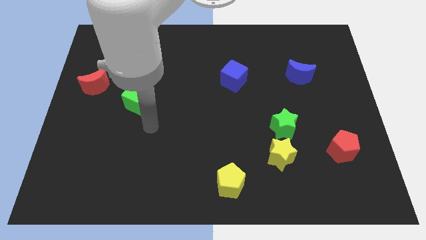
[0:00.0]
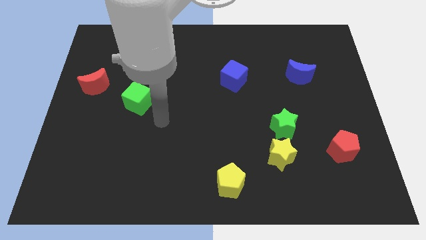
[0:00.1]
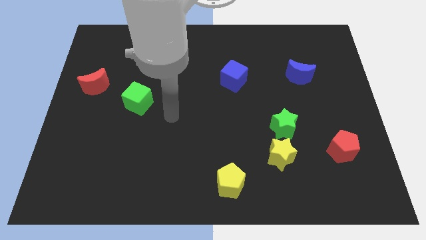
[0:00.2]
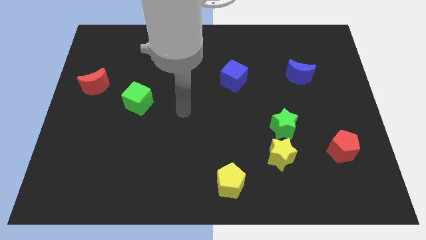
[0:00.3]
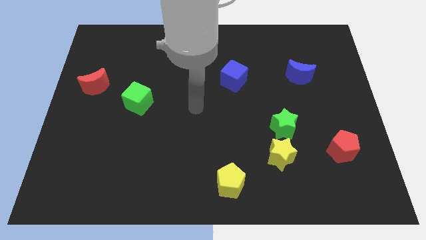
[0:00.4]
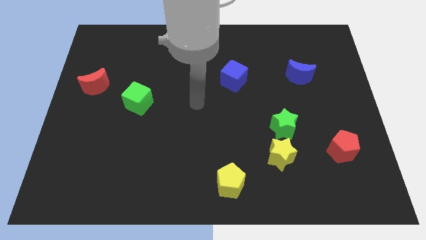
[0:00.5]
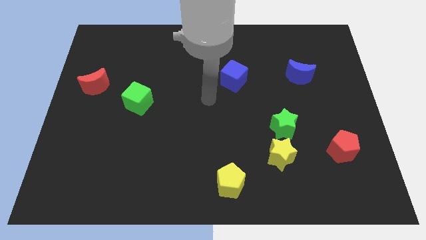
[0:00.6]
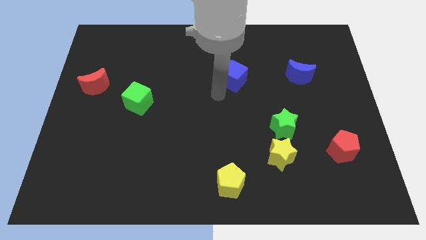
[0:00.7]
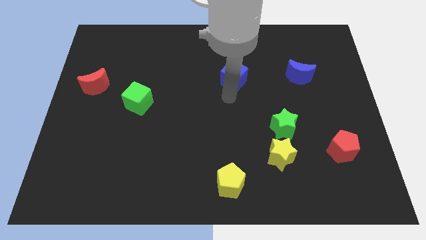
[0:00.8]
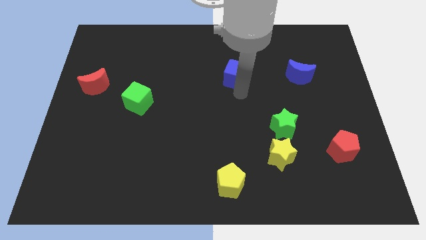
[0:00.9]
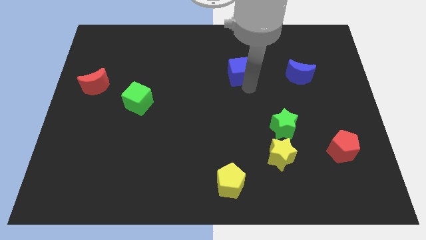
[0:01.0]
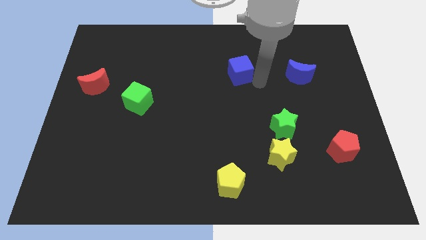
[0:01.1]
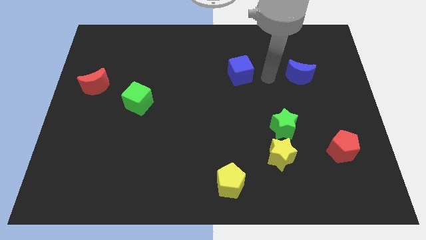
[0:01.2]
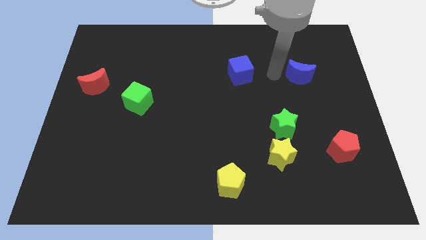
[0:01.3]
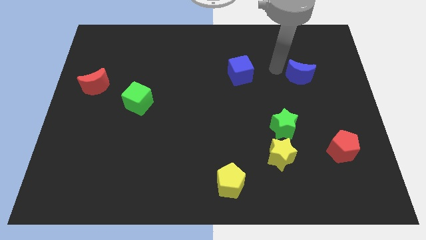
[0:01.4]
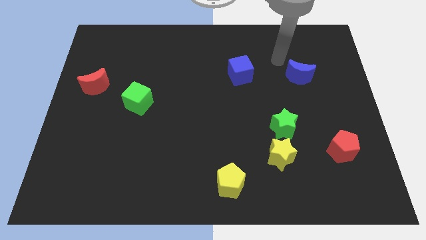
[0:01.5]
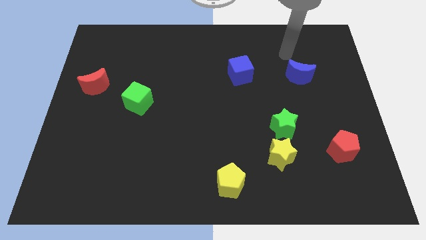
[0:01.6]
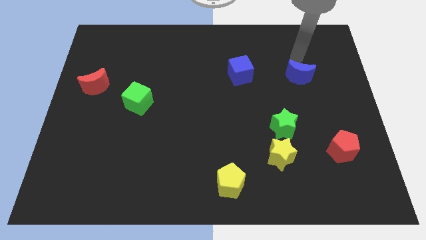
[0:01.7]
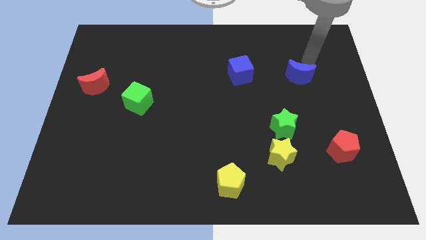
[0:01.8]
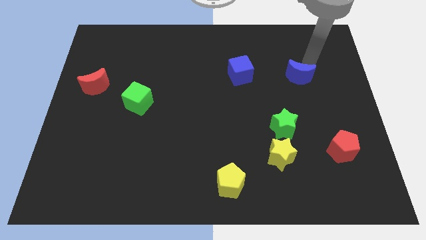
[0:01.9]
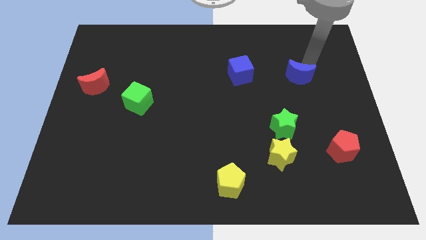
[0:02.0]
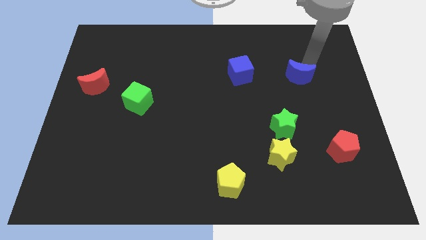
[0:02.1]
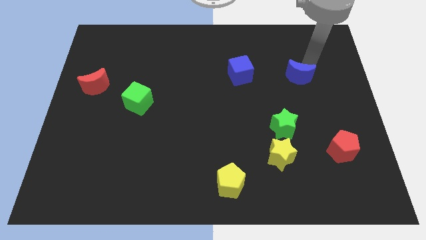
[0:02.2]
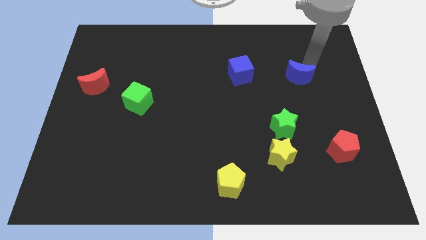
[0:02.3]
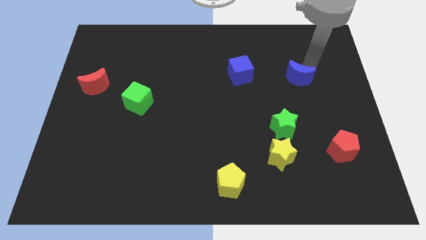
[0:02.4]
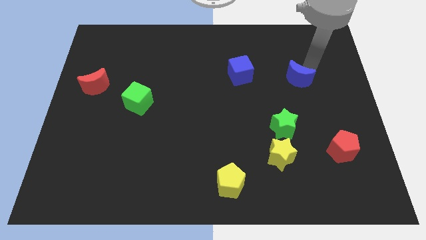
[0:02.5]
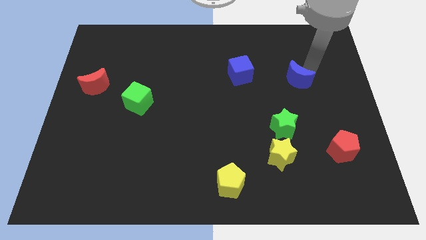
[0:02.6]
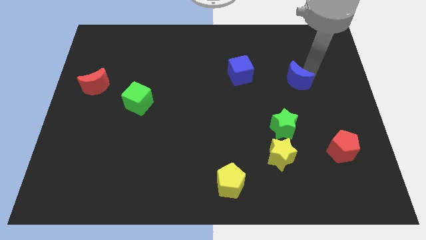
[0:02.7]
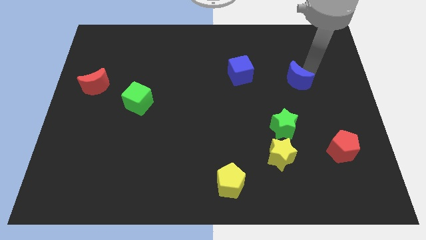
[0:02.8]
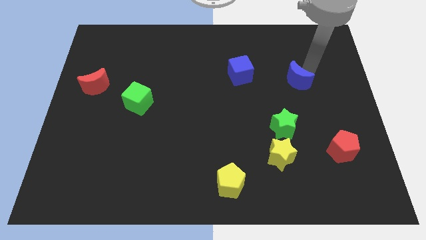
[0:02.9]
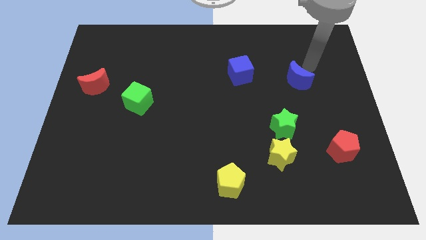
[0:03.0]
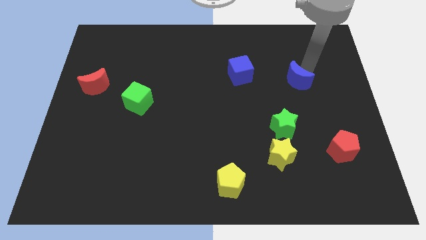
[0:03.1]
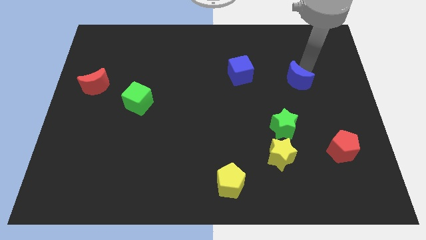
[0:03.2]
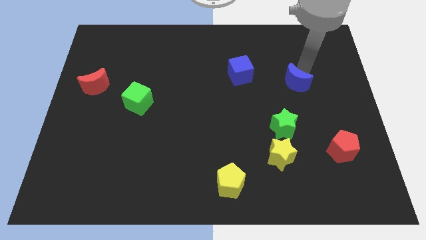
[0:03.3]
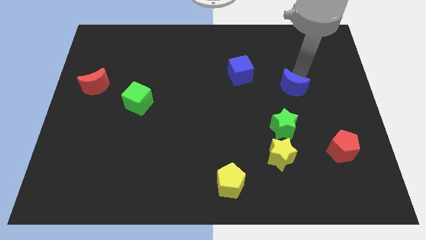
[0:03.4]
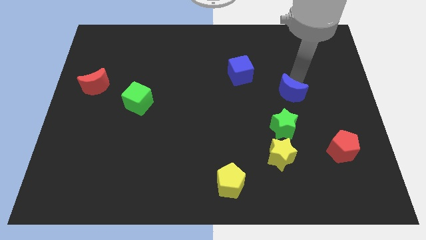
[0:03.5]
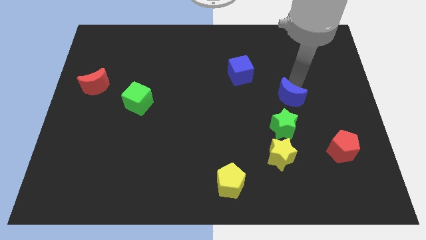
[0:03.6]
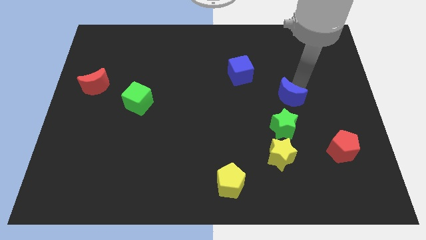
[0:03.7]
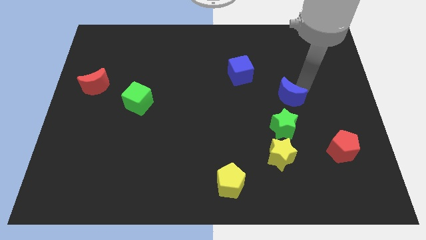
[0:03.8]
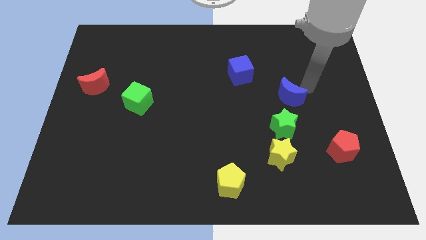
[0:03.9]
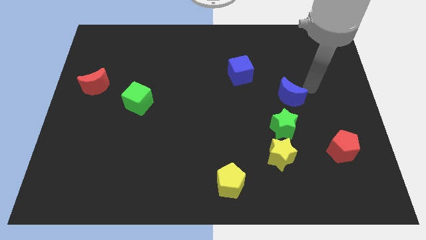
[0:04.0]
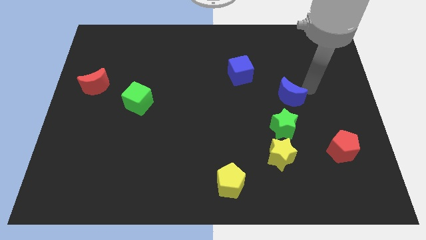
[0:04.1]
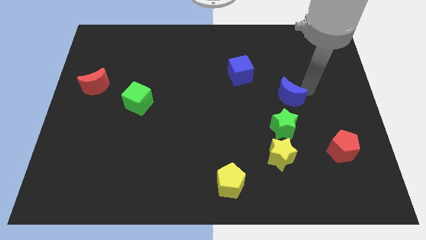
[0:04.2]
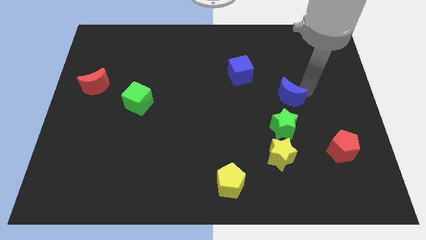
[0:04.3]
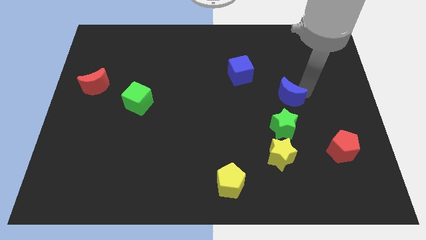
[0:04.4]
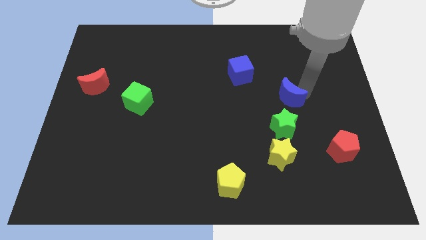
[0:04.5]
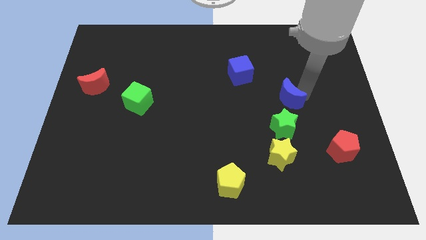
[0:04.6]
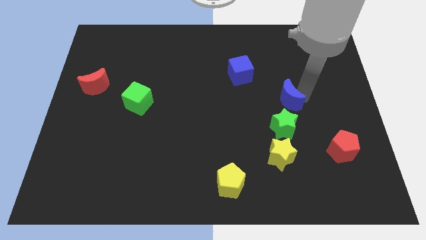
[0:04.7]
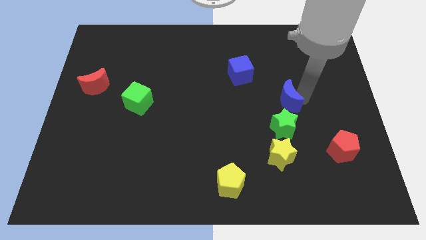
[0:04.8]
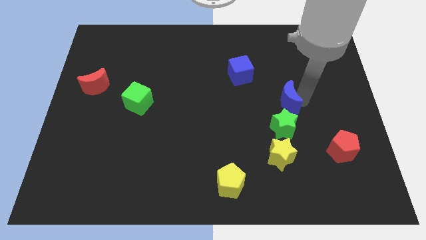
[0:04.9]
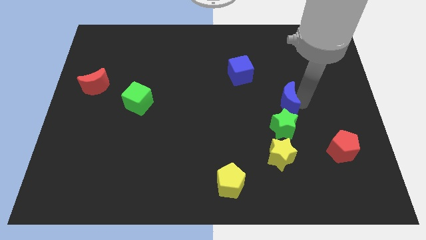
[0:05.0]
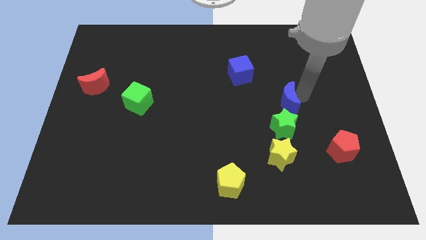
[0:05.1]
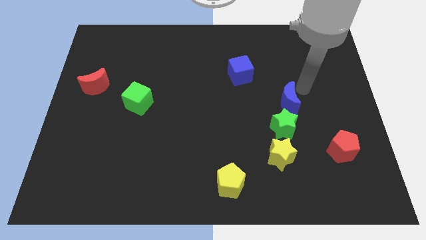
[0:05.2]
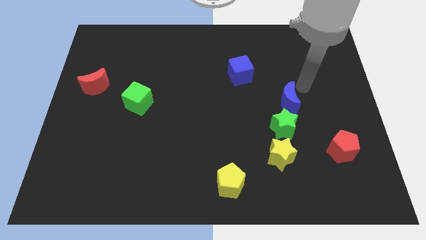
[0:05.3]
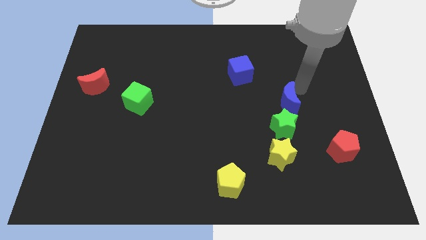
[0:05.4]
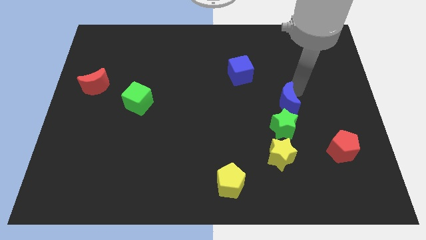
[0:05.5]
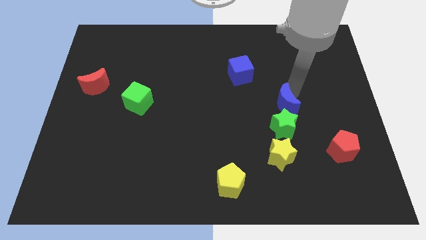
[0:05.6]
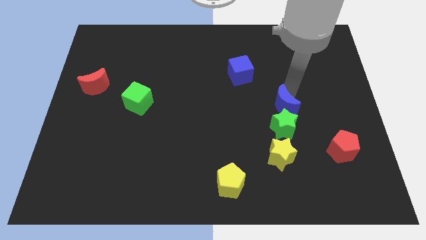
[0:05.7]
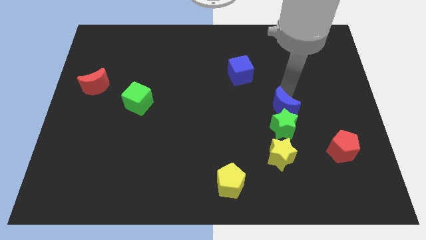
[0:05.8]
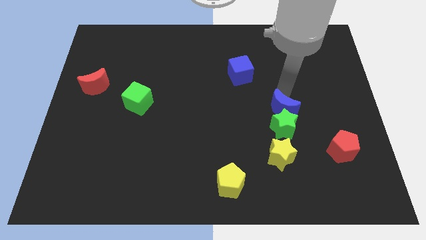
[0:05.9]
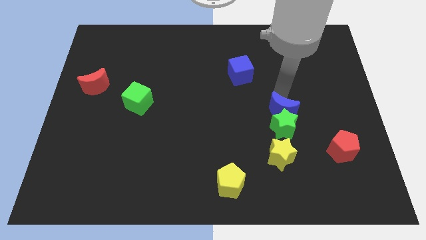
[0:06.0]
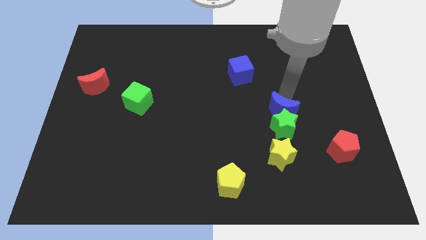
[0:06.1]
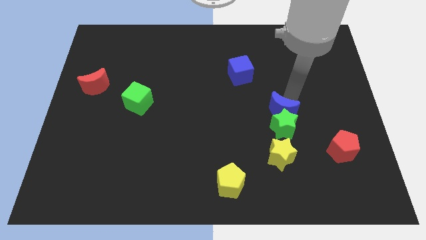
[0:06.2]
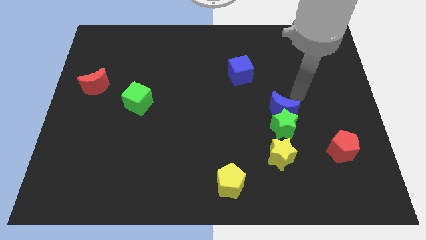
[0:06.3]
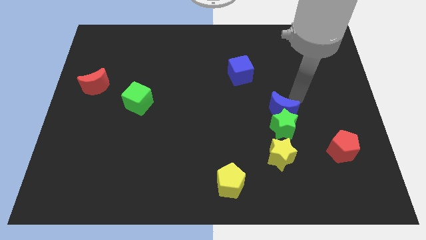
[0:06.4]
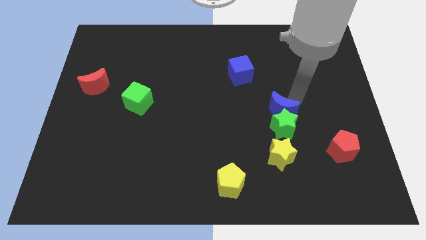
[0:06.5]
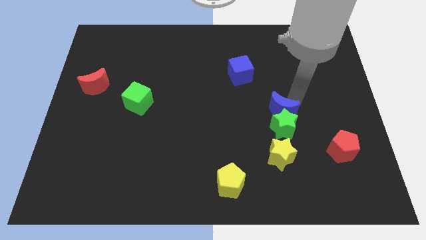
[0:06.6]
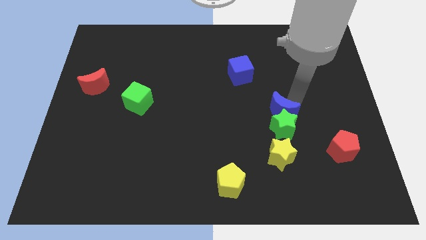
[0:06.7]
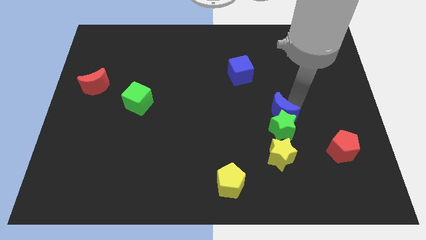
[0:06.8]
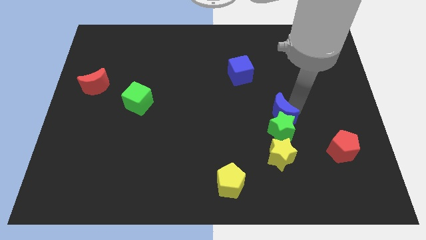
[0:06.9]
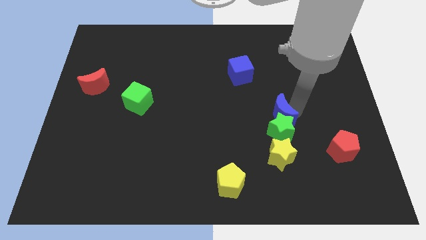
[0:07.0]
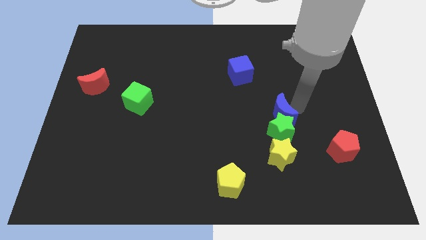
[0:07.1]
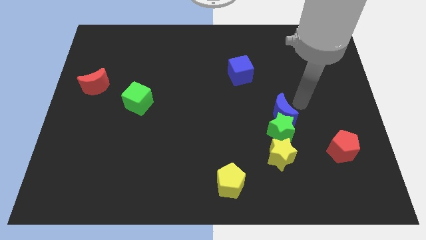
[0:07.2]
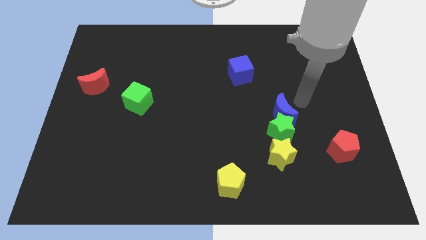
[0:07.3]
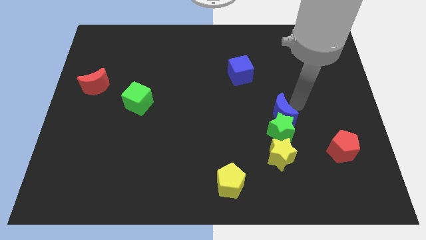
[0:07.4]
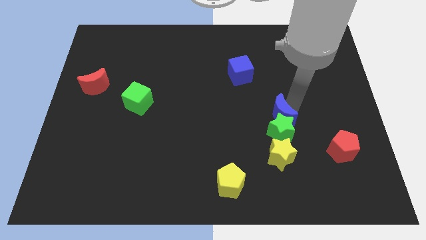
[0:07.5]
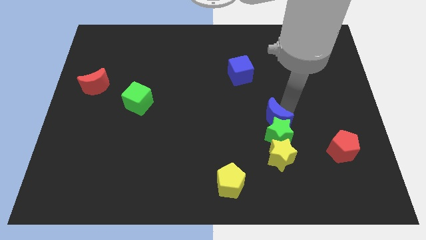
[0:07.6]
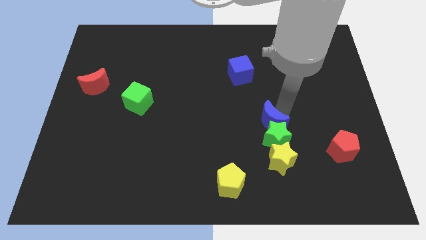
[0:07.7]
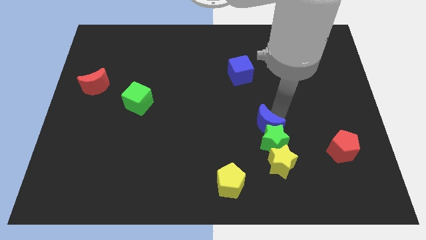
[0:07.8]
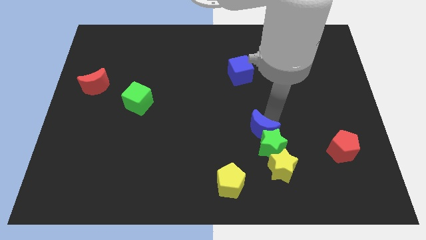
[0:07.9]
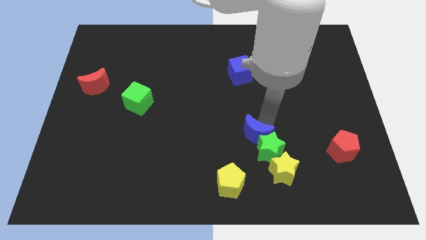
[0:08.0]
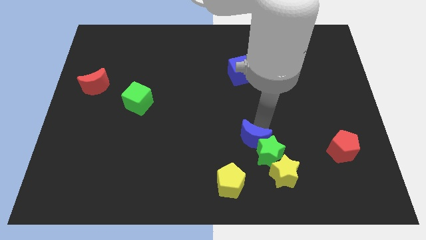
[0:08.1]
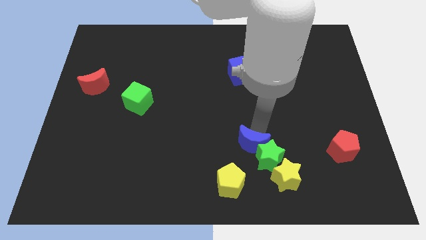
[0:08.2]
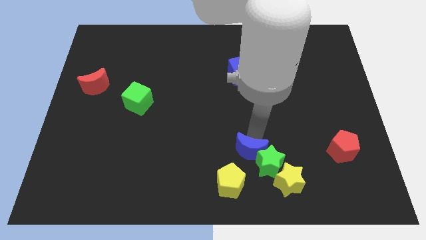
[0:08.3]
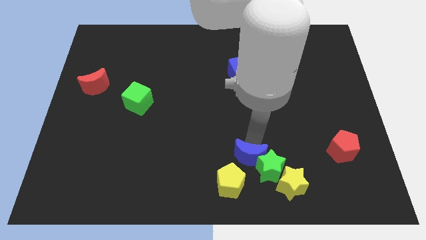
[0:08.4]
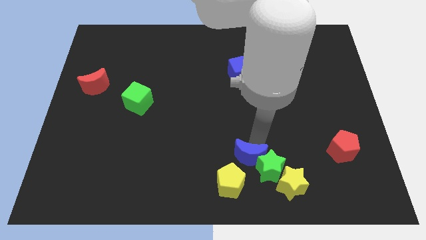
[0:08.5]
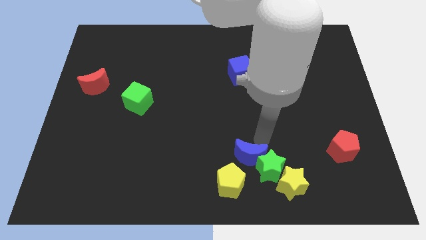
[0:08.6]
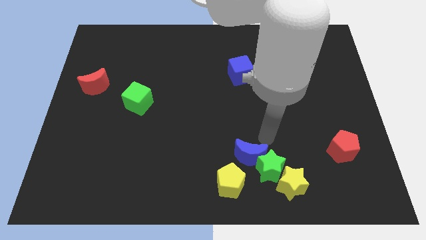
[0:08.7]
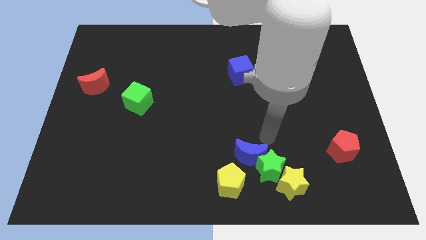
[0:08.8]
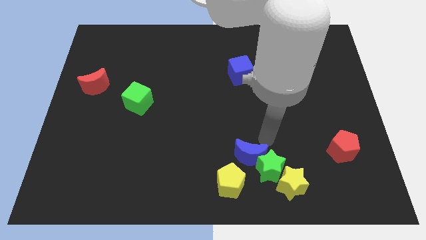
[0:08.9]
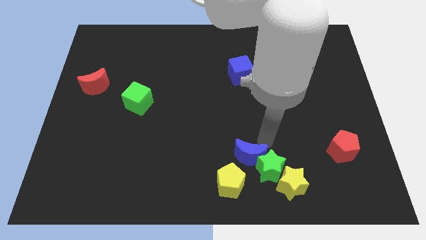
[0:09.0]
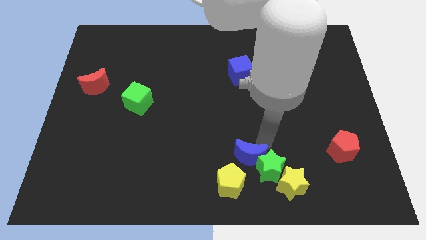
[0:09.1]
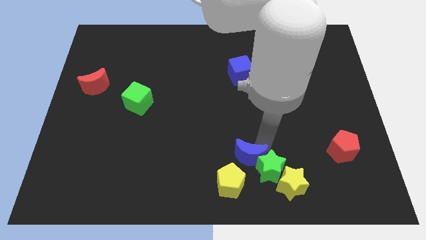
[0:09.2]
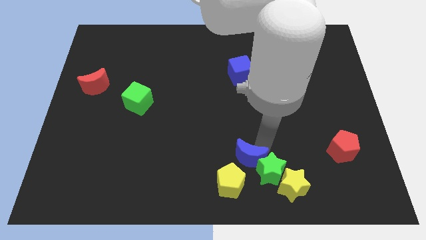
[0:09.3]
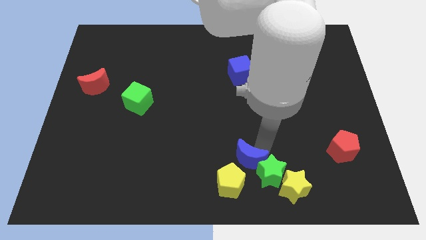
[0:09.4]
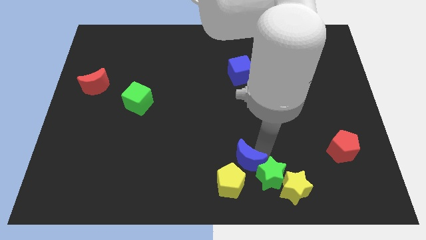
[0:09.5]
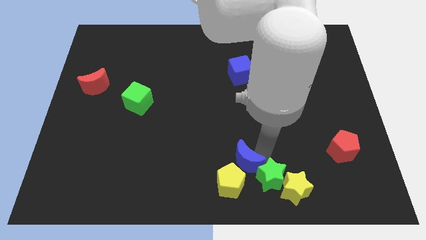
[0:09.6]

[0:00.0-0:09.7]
slide the blue moon to the yellow pentagon
